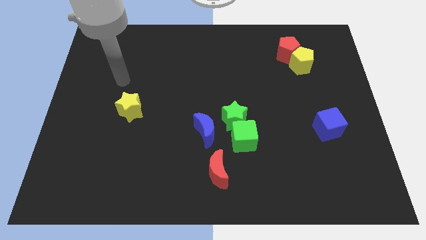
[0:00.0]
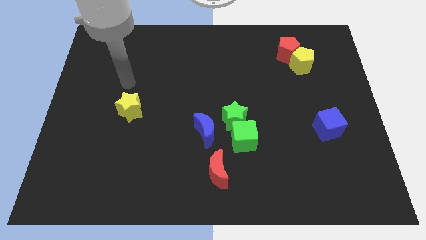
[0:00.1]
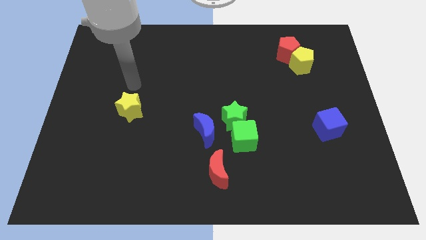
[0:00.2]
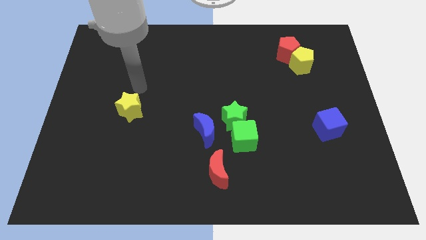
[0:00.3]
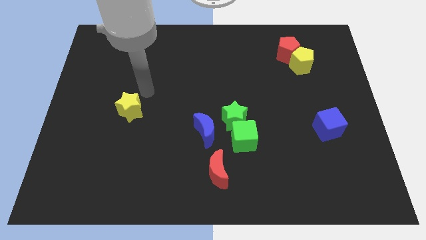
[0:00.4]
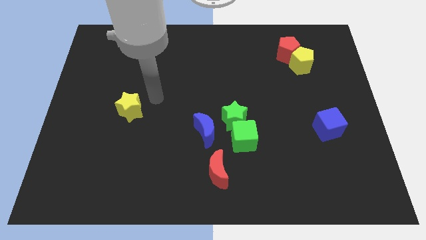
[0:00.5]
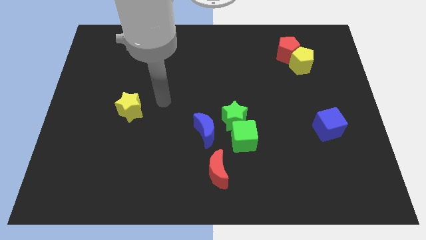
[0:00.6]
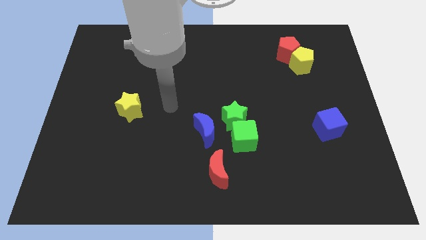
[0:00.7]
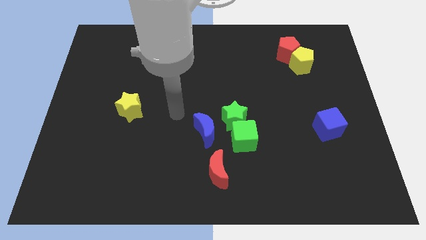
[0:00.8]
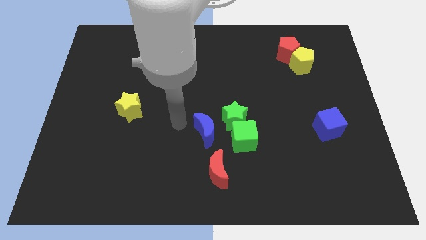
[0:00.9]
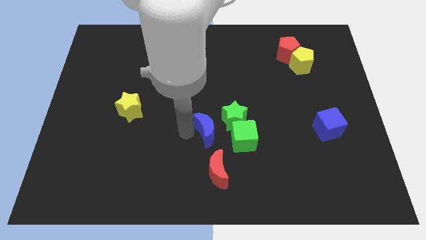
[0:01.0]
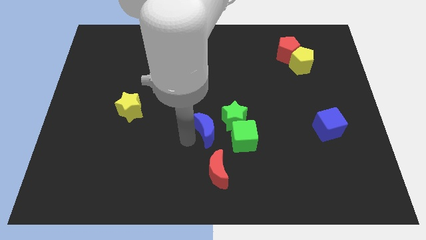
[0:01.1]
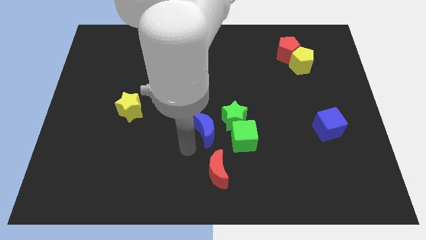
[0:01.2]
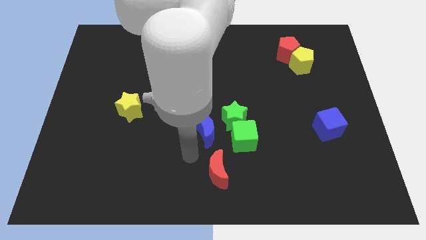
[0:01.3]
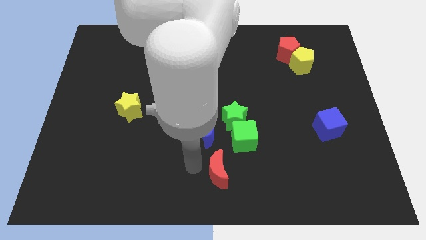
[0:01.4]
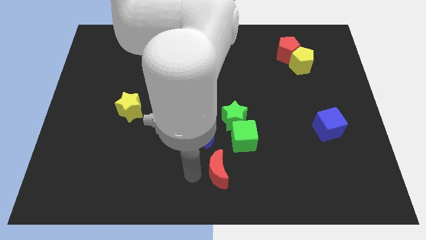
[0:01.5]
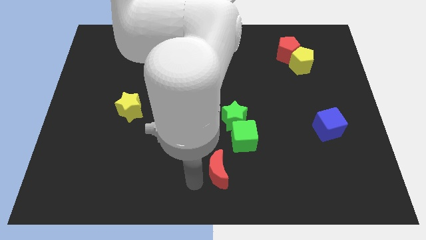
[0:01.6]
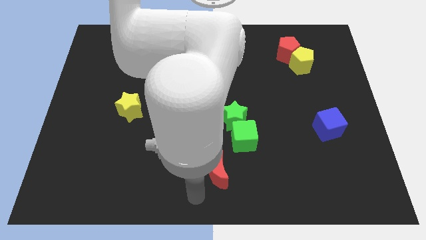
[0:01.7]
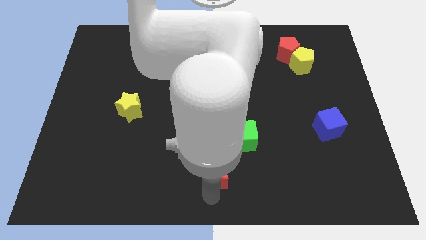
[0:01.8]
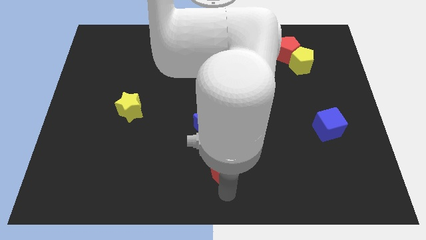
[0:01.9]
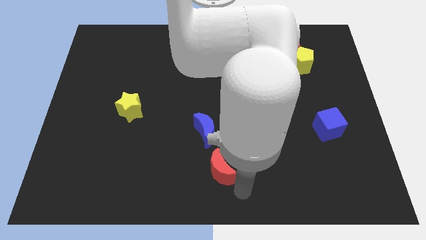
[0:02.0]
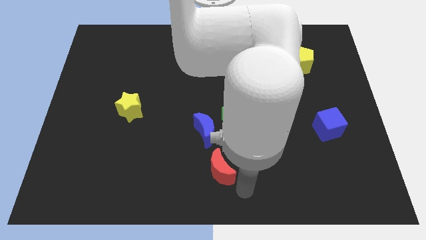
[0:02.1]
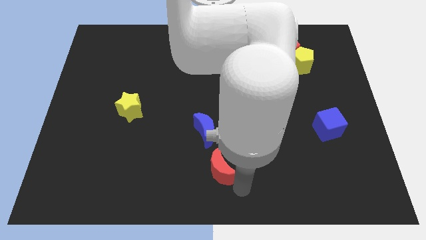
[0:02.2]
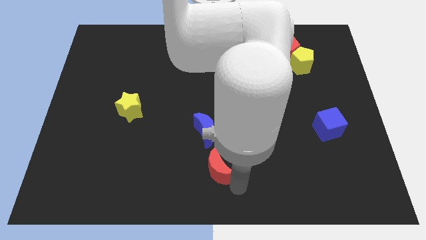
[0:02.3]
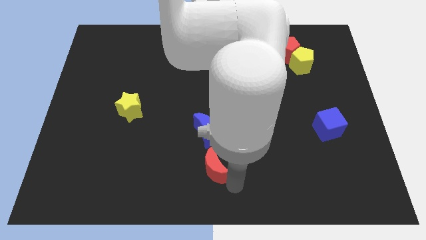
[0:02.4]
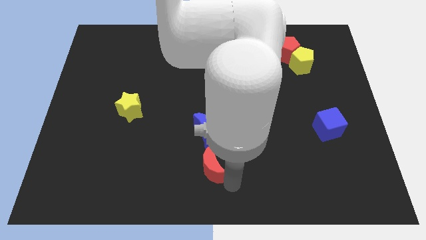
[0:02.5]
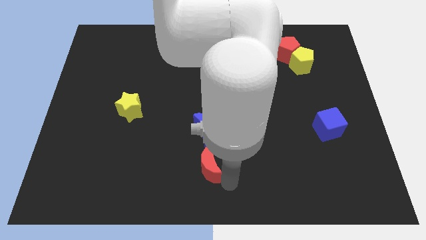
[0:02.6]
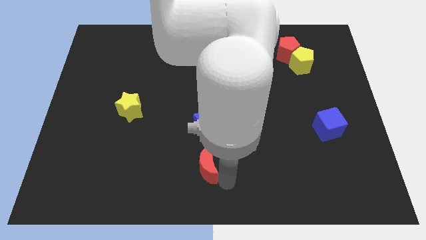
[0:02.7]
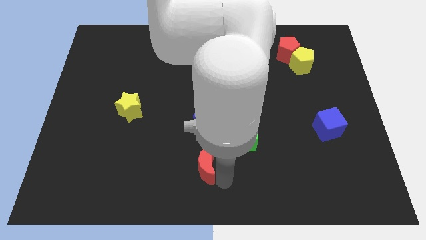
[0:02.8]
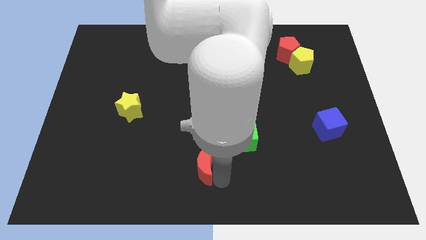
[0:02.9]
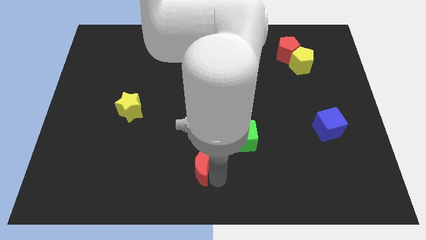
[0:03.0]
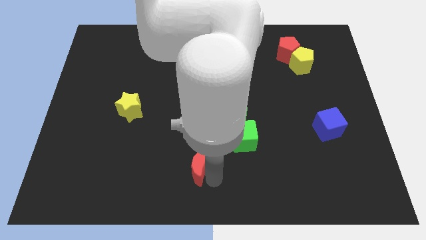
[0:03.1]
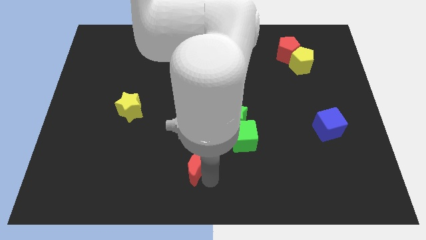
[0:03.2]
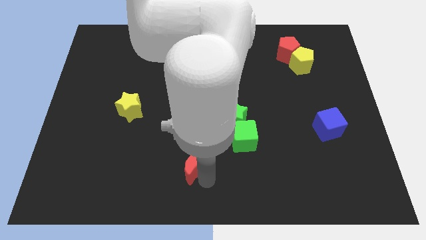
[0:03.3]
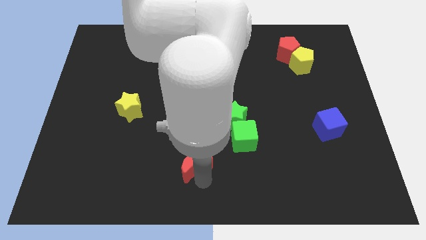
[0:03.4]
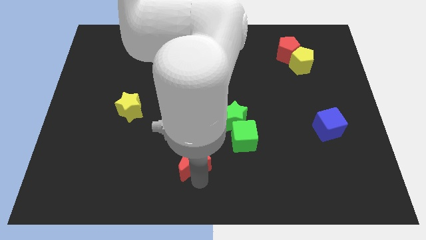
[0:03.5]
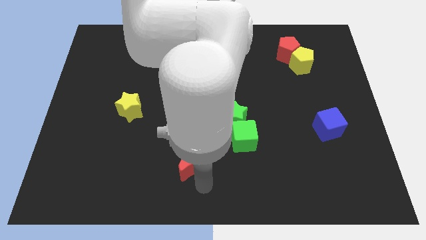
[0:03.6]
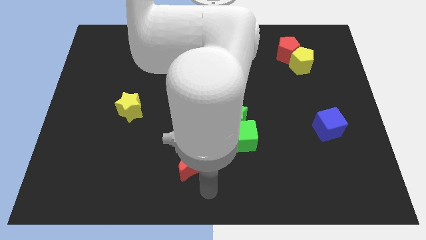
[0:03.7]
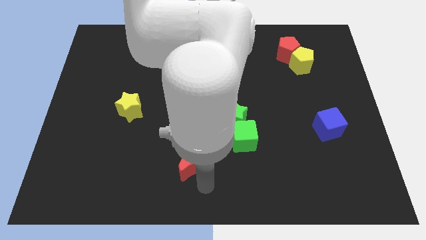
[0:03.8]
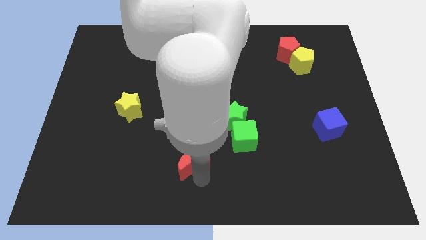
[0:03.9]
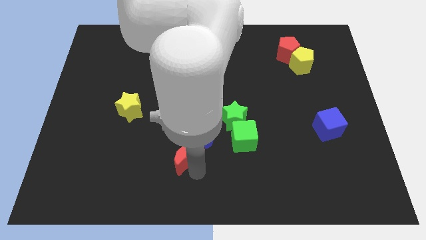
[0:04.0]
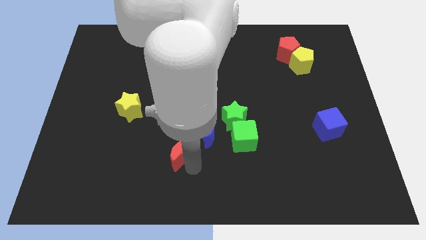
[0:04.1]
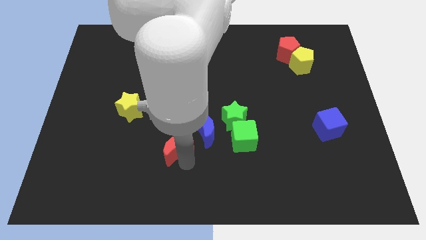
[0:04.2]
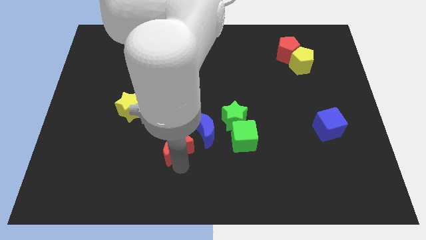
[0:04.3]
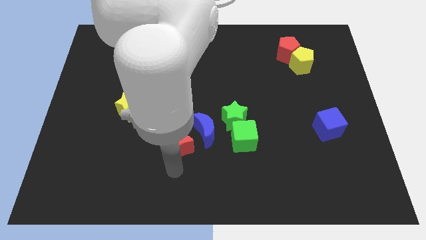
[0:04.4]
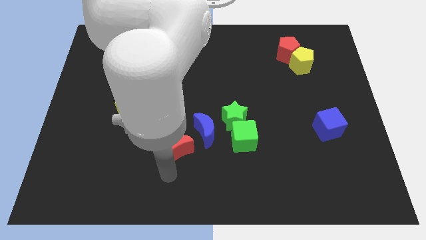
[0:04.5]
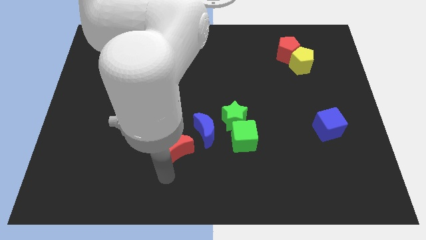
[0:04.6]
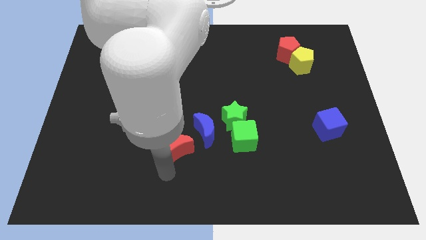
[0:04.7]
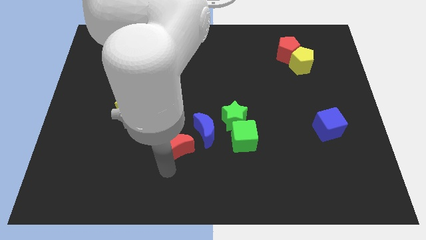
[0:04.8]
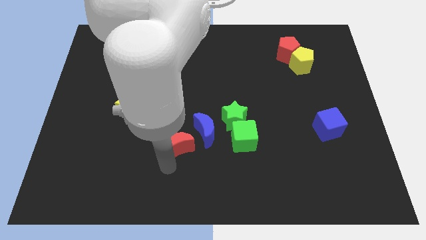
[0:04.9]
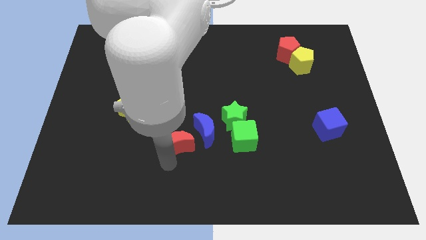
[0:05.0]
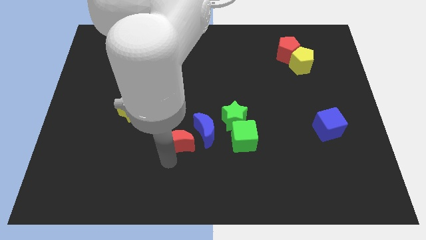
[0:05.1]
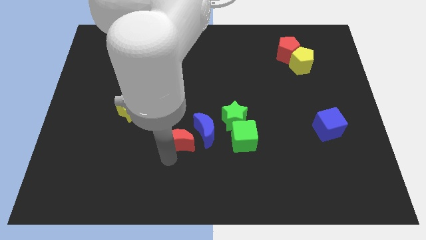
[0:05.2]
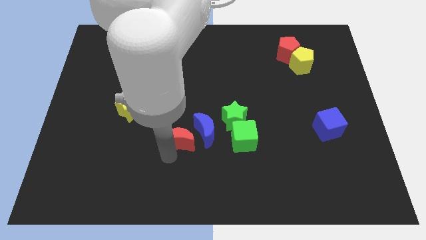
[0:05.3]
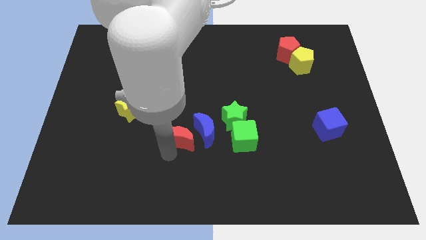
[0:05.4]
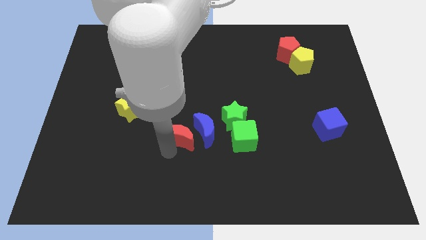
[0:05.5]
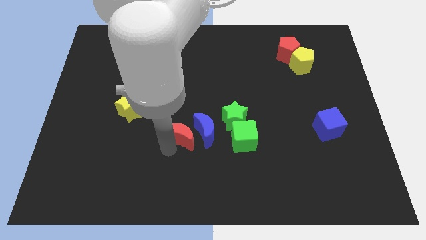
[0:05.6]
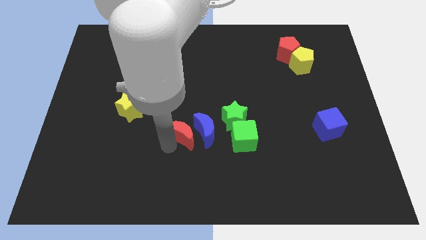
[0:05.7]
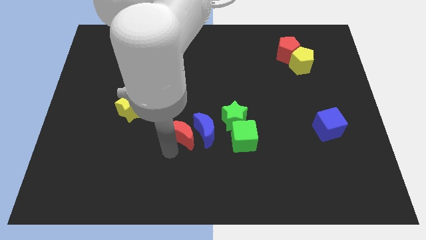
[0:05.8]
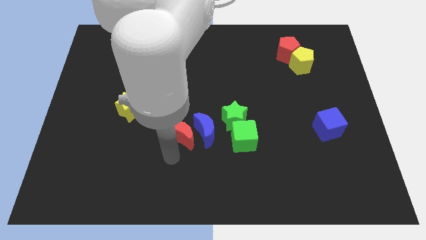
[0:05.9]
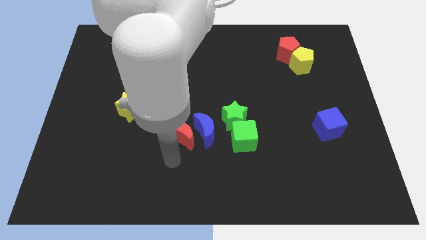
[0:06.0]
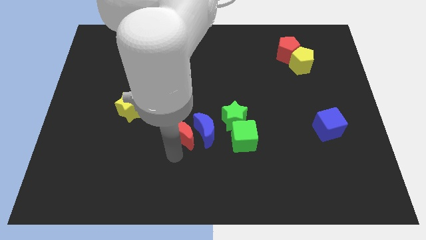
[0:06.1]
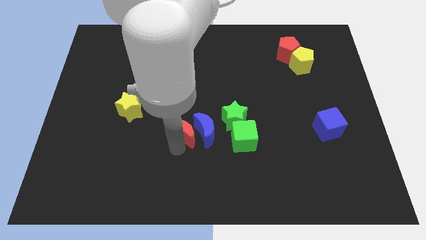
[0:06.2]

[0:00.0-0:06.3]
push the red moon slightly upwards

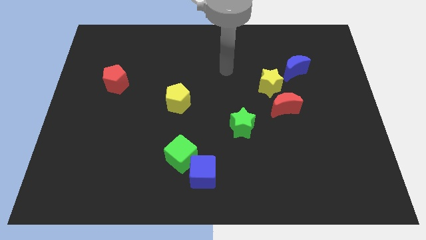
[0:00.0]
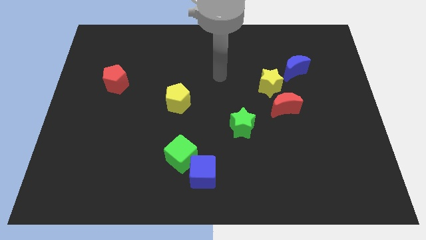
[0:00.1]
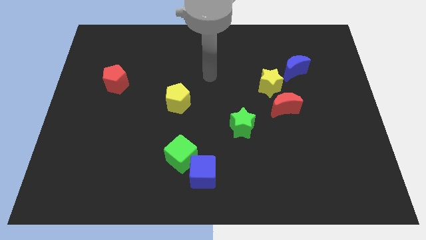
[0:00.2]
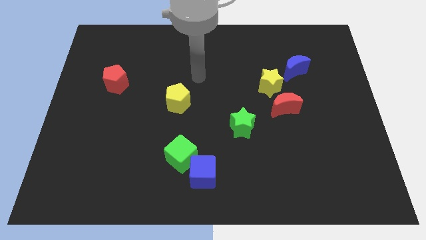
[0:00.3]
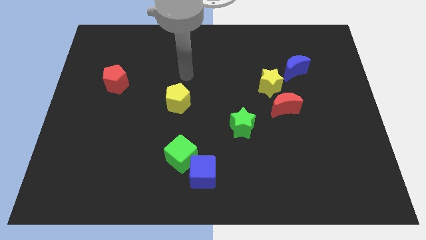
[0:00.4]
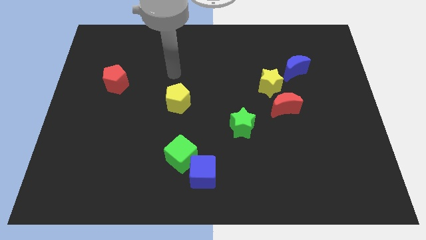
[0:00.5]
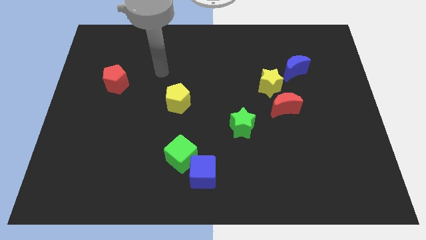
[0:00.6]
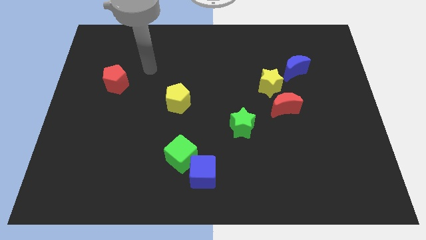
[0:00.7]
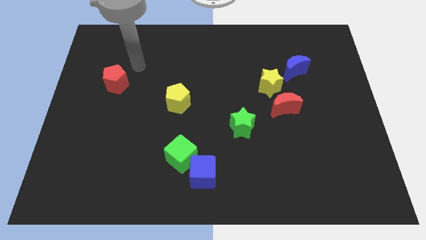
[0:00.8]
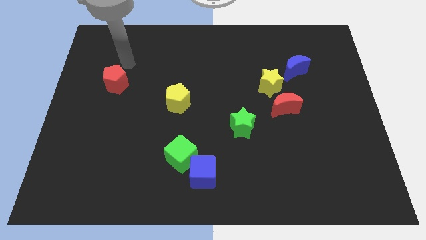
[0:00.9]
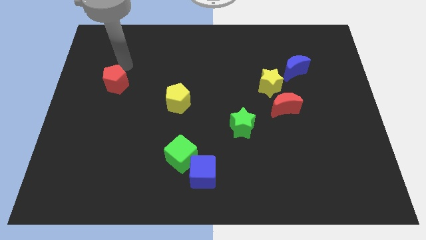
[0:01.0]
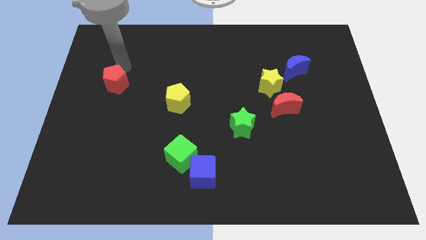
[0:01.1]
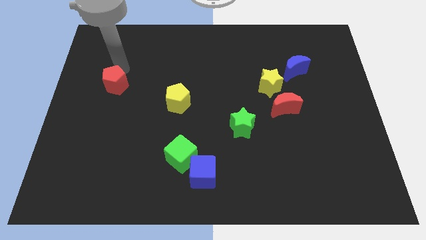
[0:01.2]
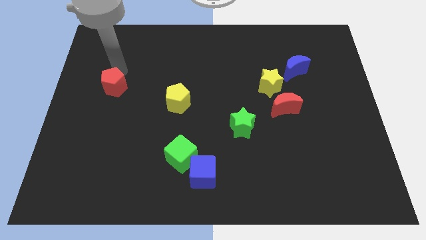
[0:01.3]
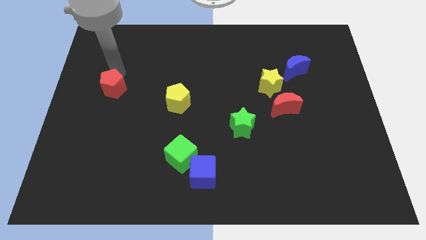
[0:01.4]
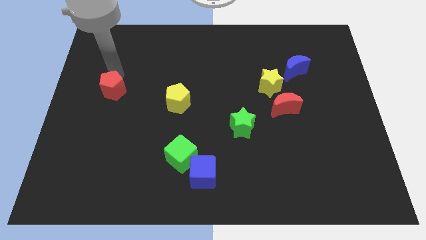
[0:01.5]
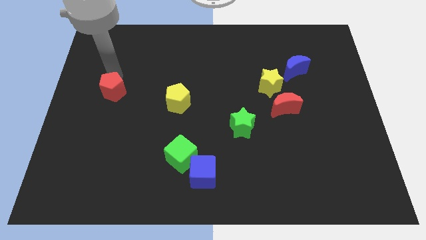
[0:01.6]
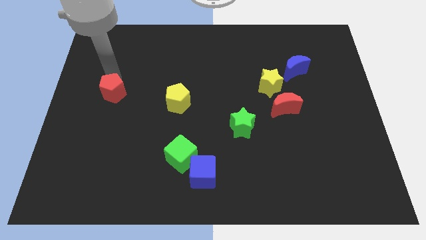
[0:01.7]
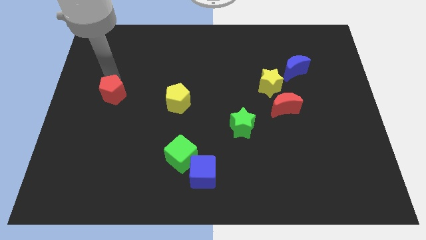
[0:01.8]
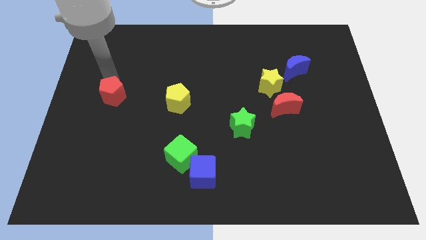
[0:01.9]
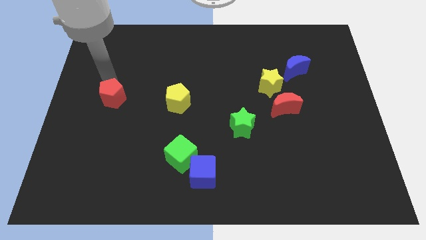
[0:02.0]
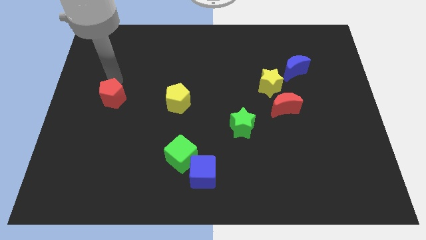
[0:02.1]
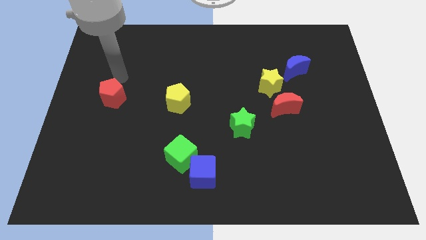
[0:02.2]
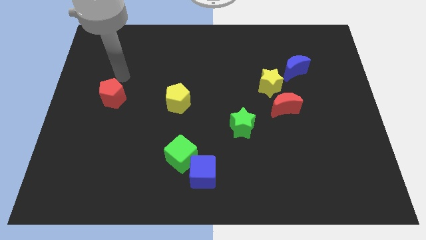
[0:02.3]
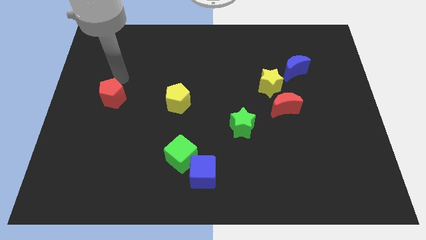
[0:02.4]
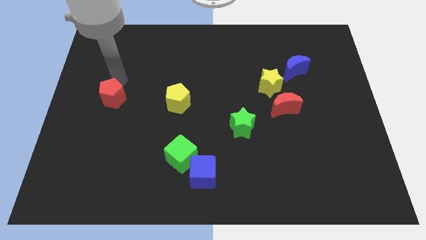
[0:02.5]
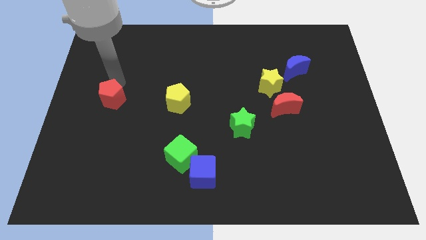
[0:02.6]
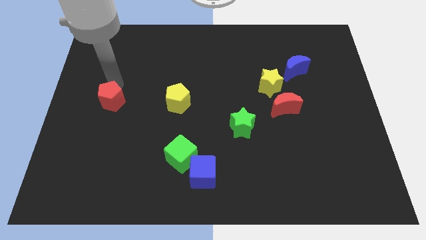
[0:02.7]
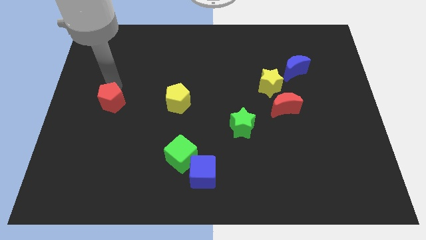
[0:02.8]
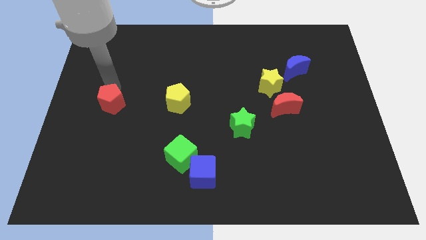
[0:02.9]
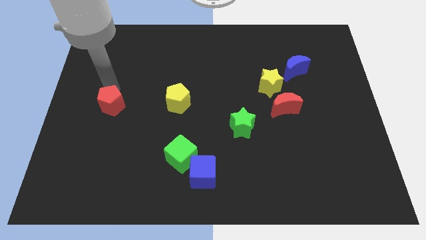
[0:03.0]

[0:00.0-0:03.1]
push the red pentagon a little bit down
